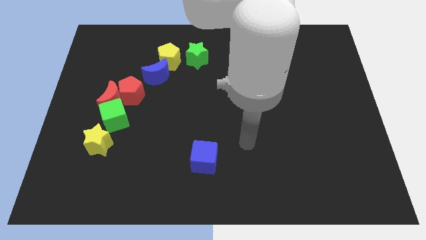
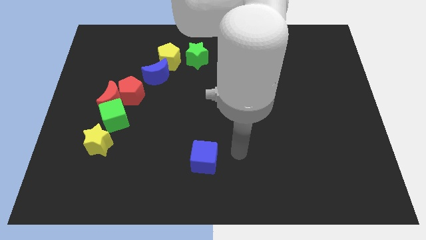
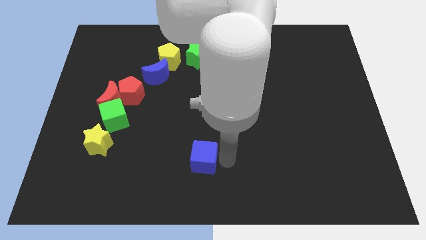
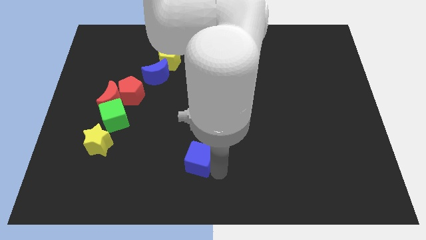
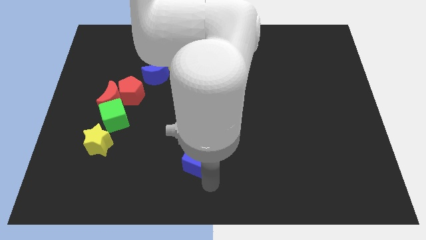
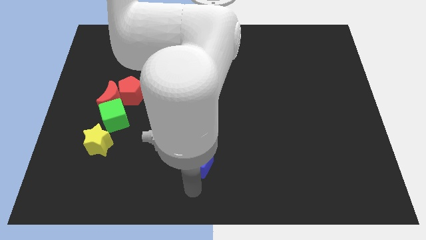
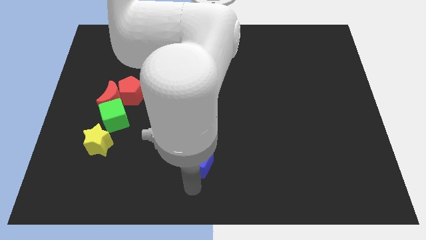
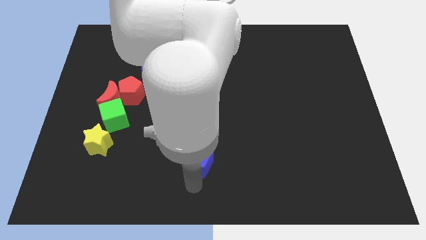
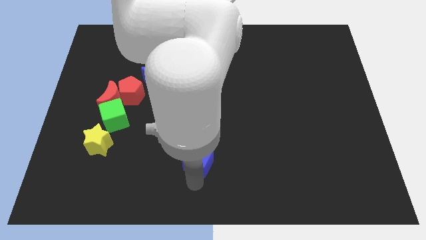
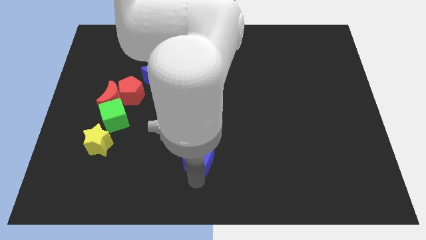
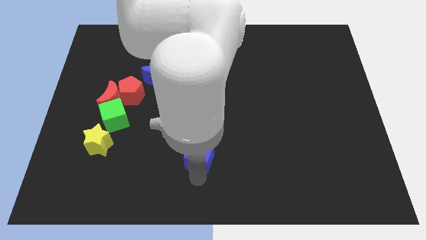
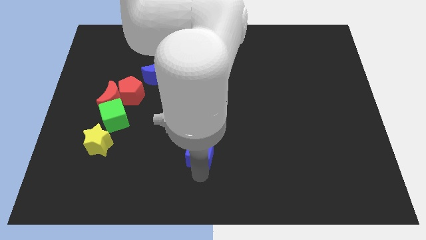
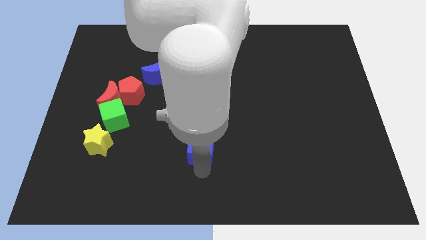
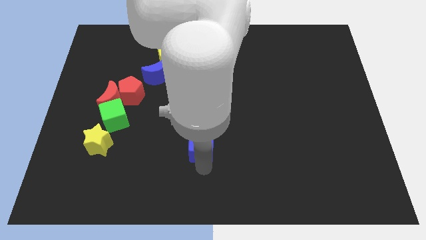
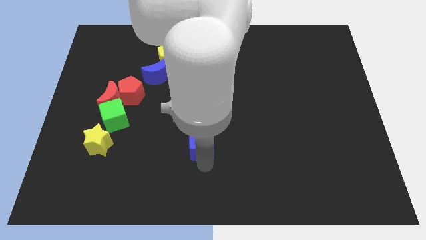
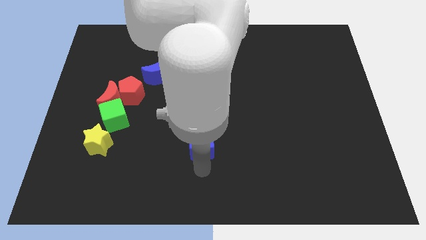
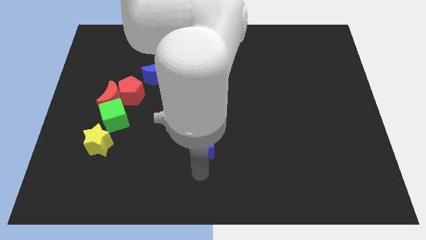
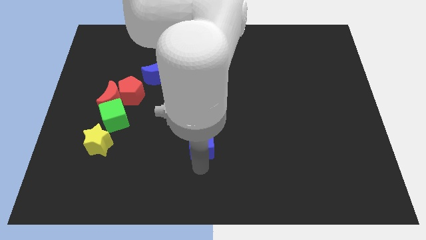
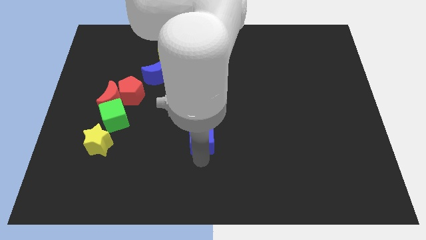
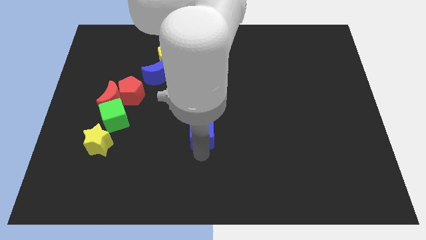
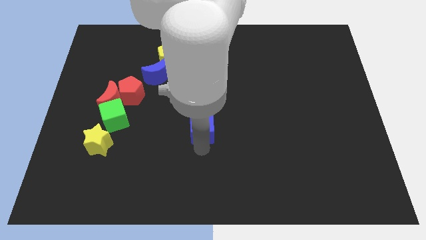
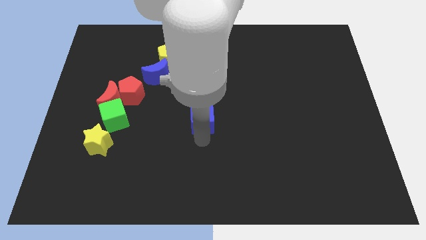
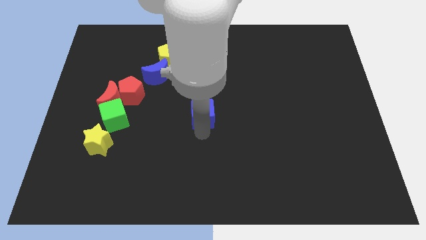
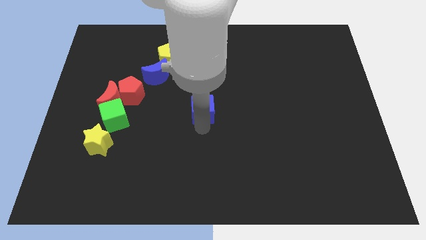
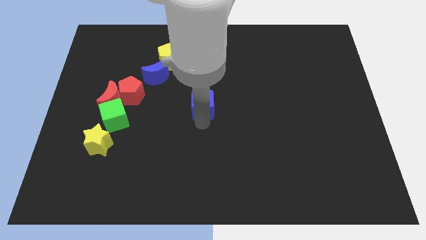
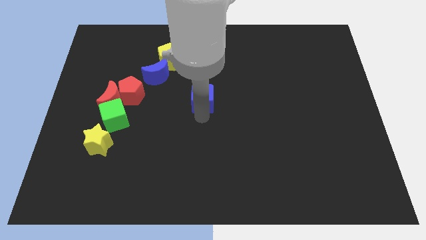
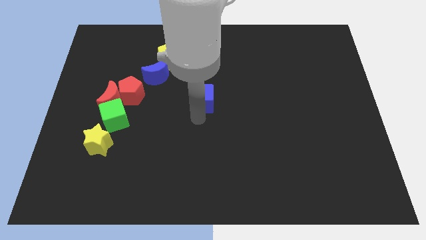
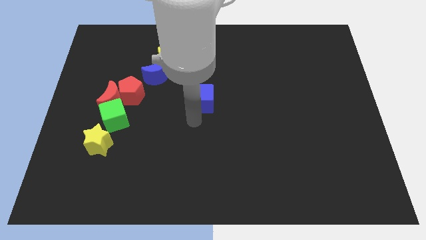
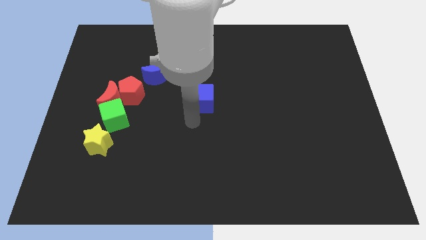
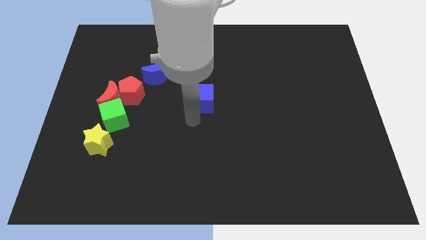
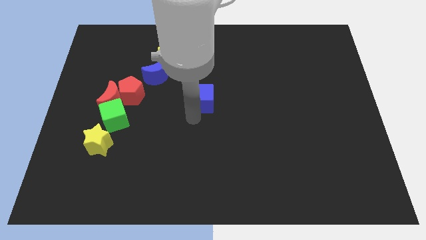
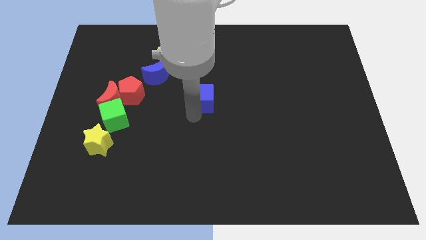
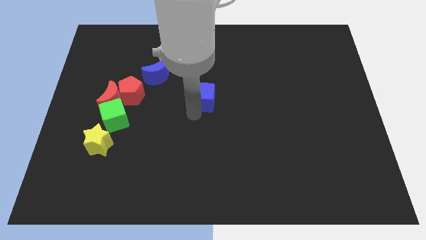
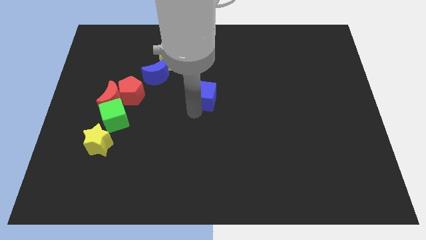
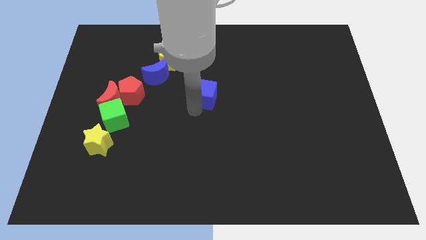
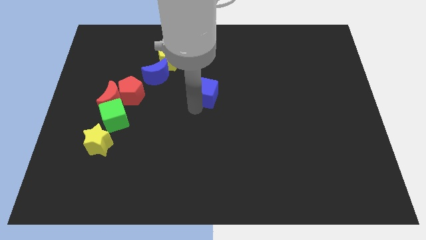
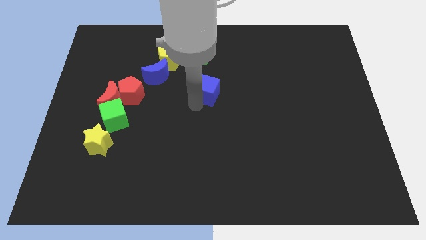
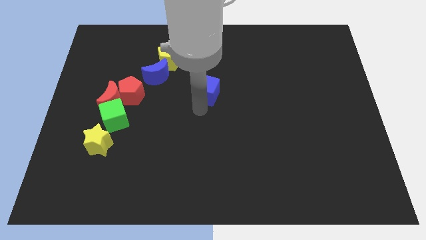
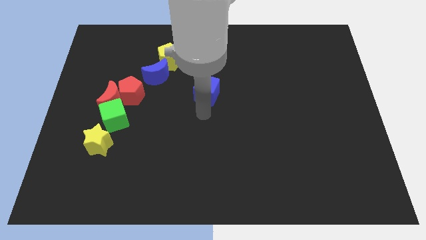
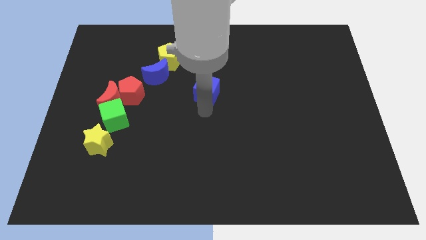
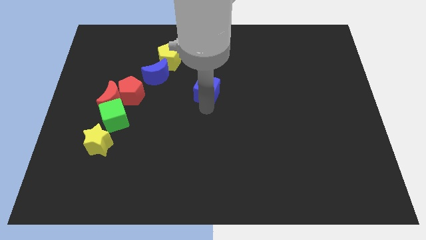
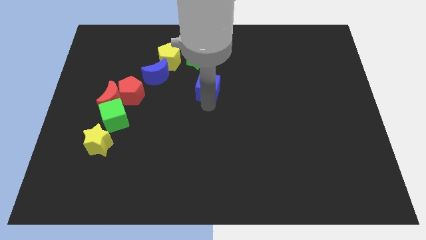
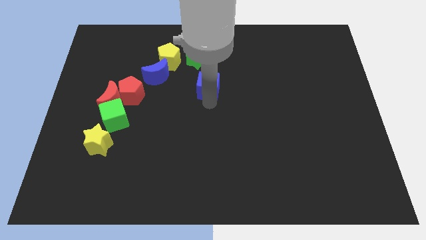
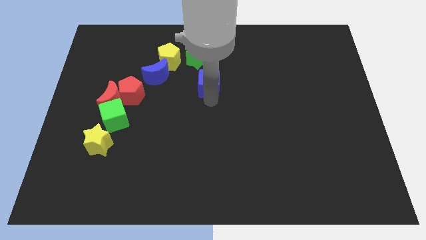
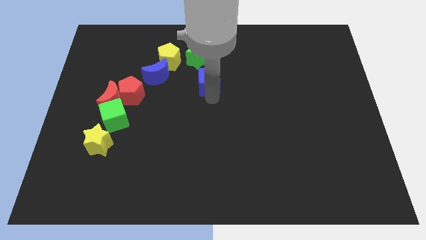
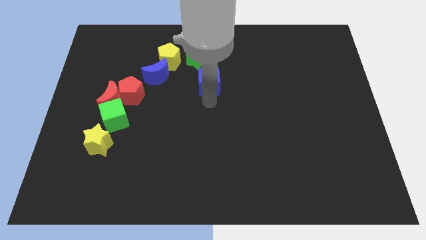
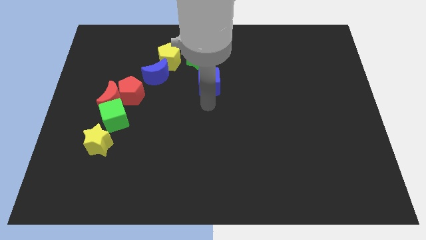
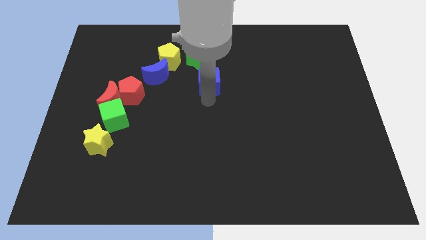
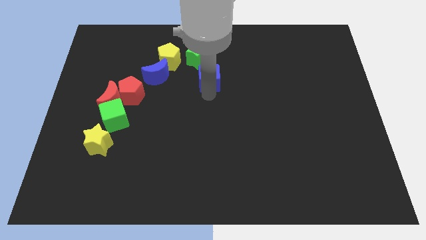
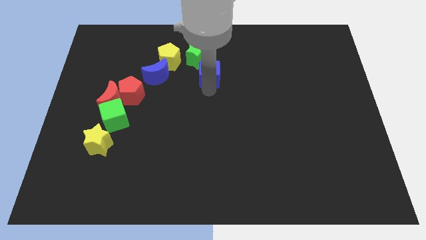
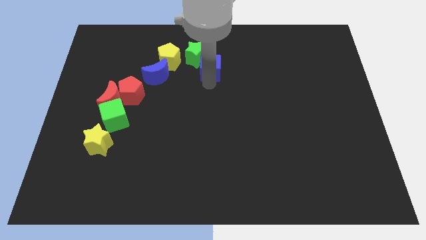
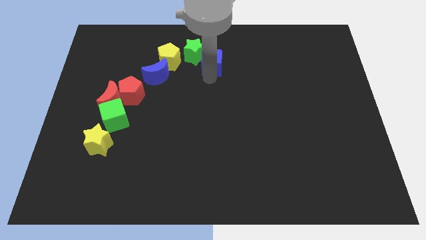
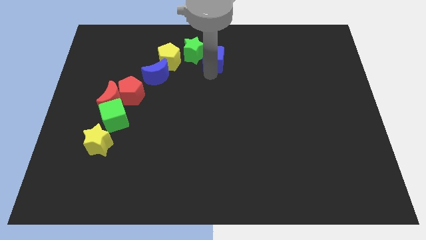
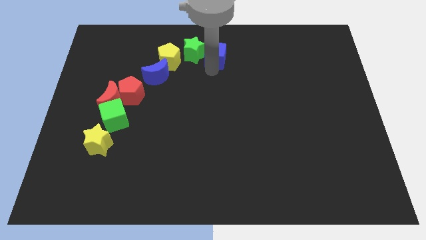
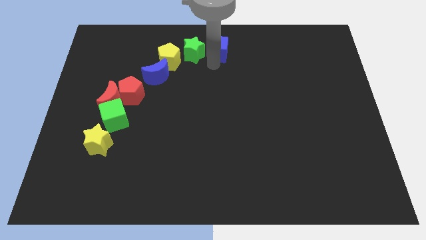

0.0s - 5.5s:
slide the blue cube to the top

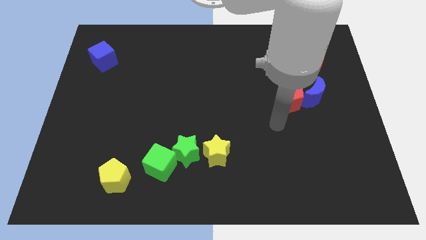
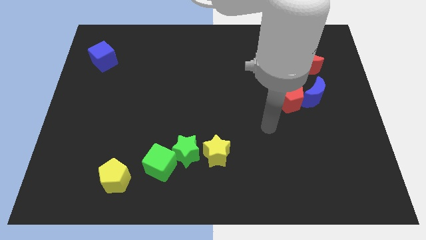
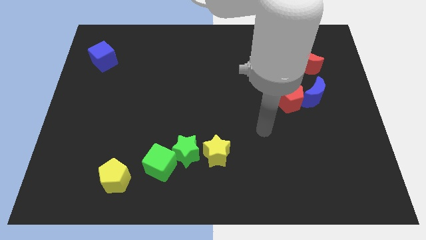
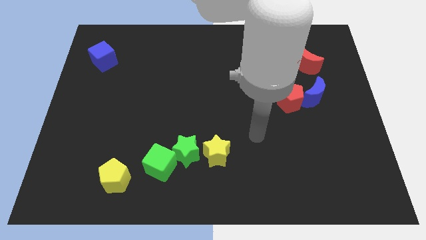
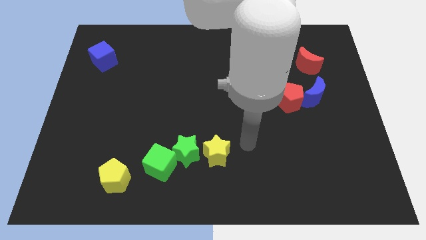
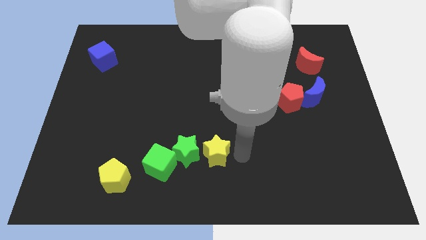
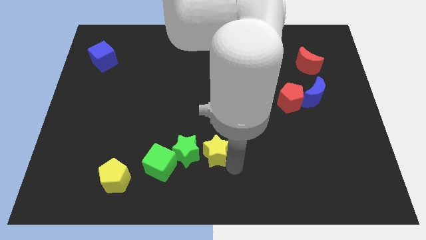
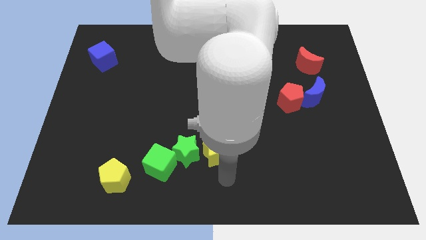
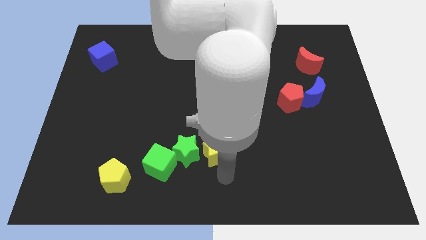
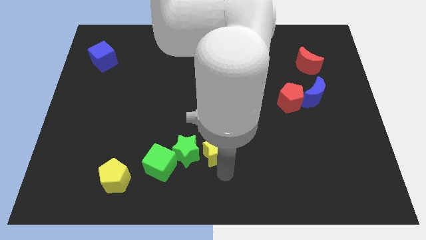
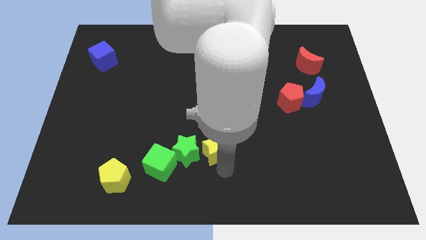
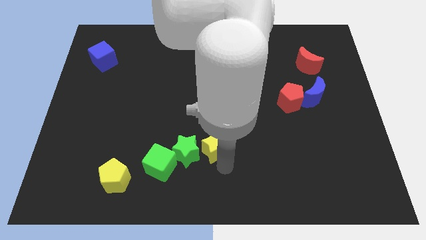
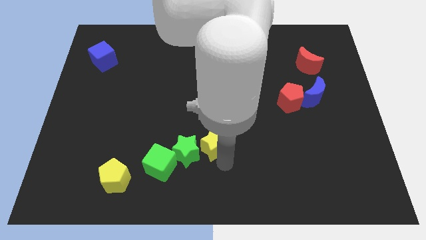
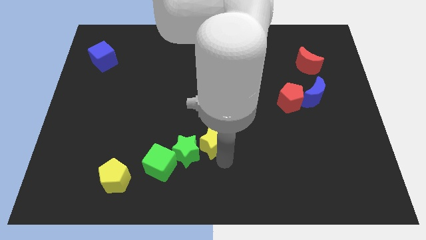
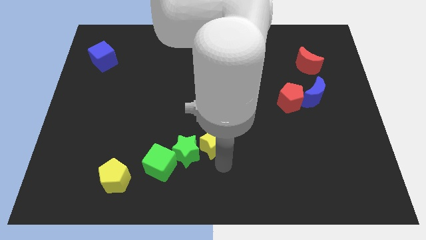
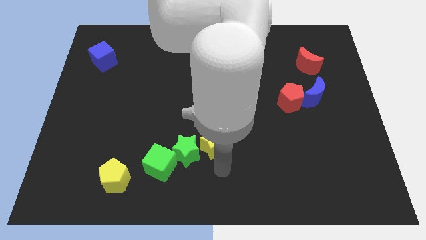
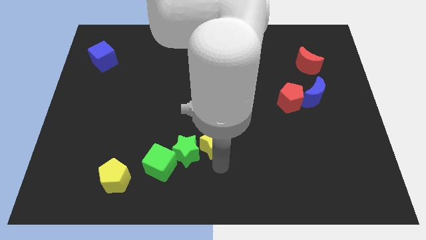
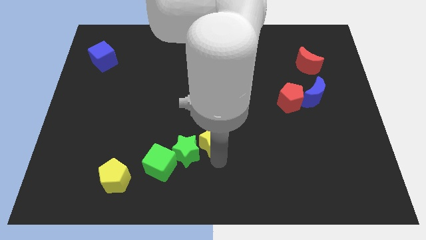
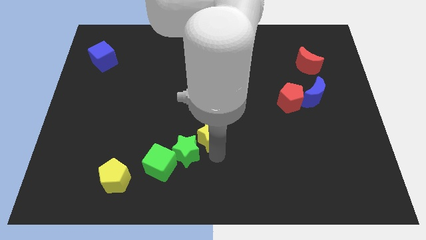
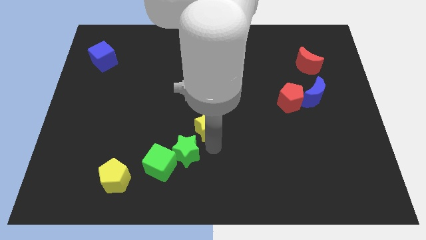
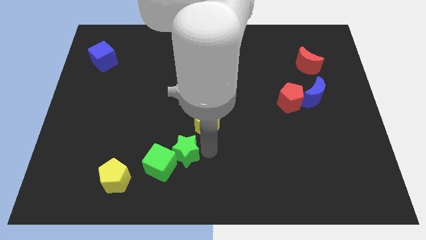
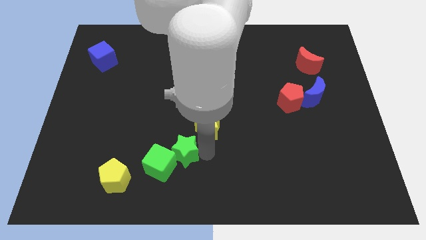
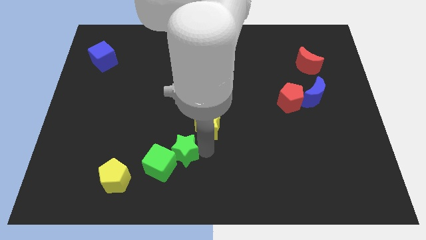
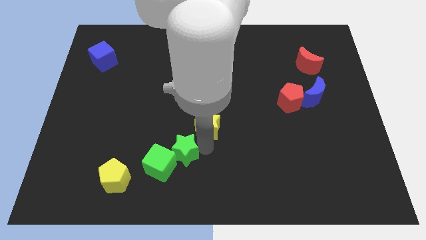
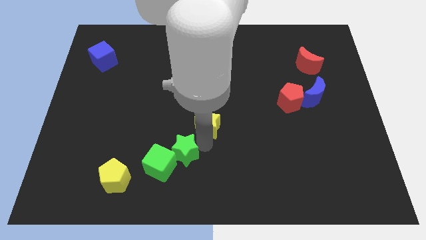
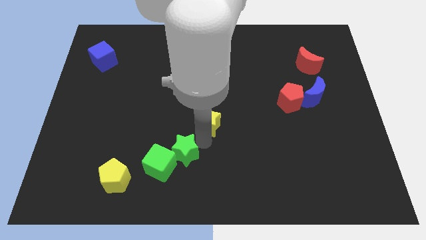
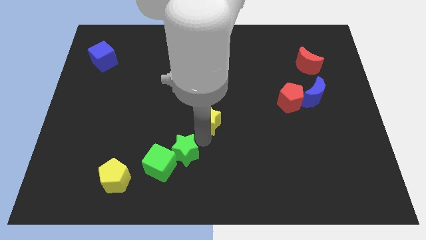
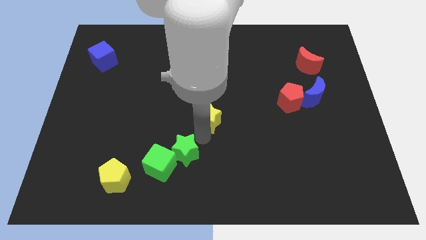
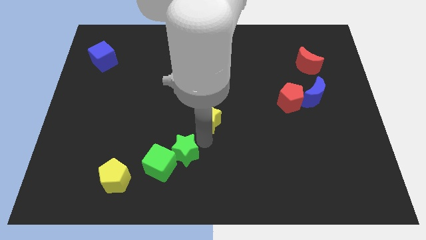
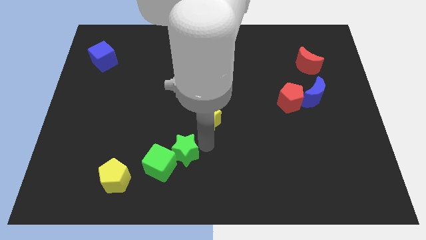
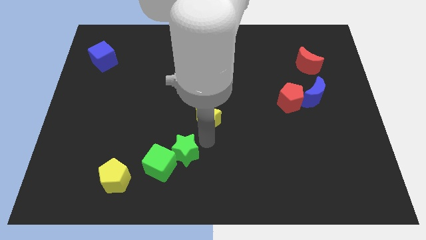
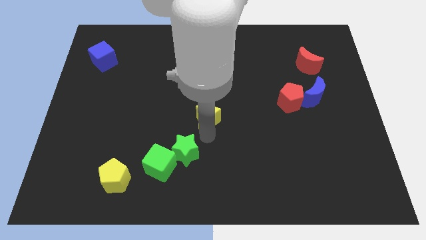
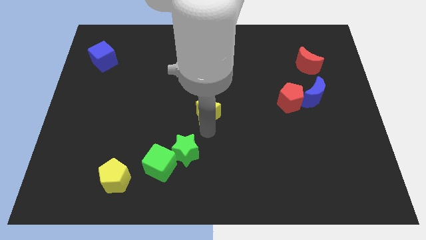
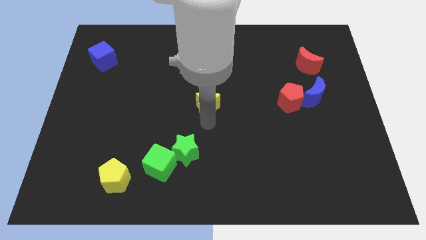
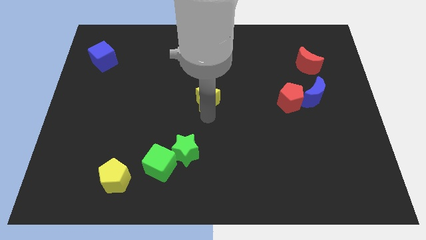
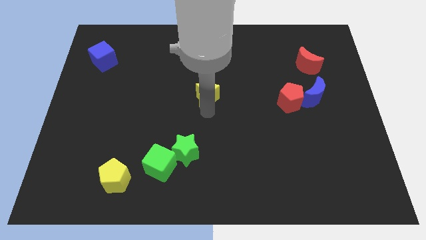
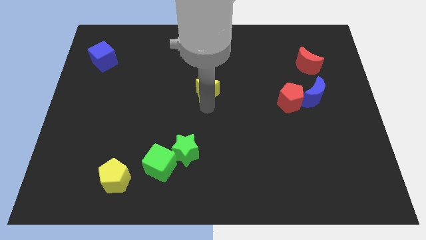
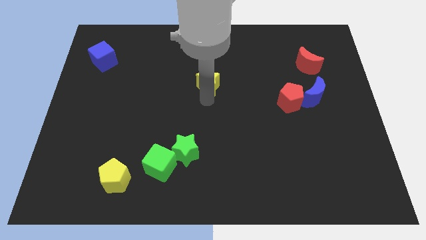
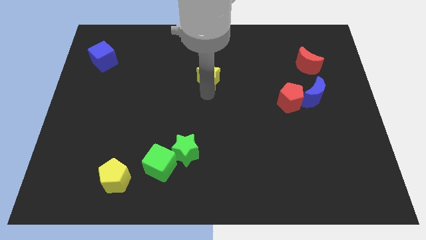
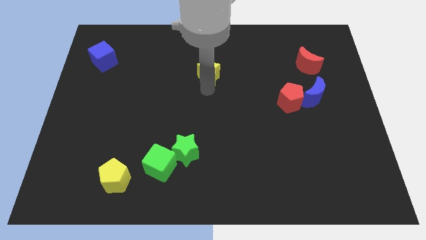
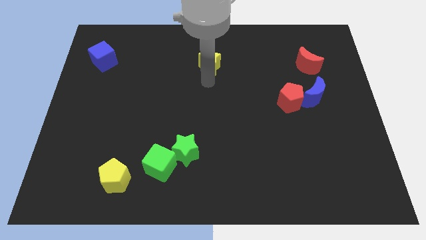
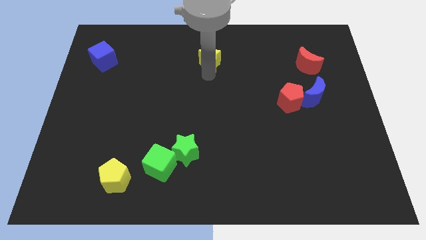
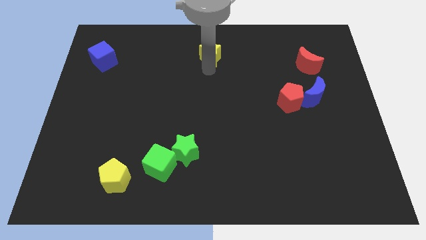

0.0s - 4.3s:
push the yellow star to the top side
